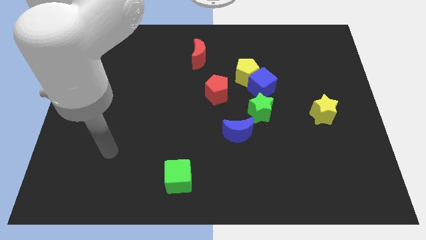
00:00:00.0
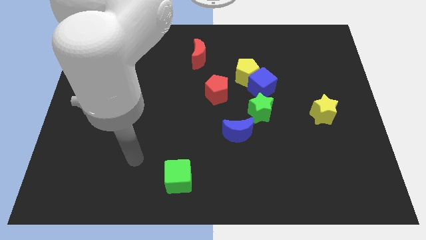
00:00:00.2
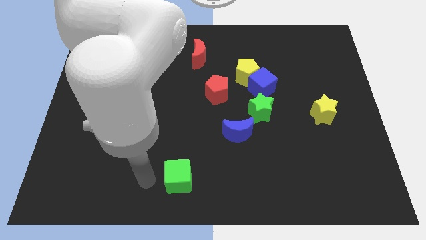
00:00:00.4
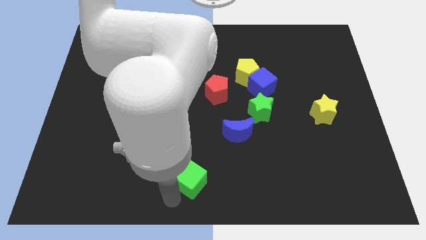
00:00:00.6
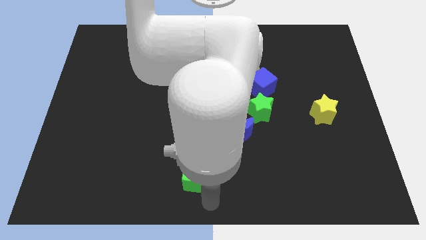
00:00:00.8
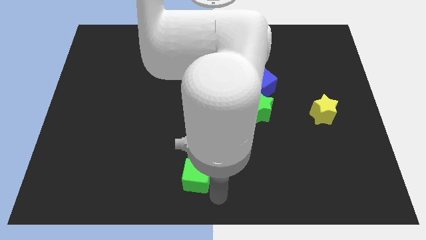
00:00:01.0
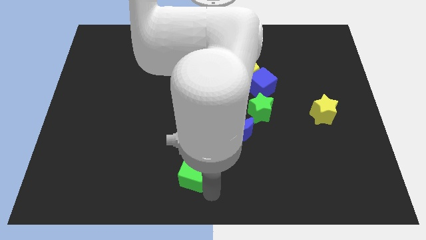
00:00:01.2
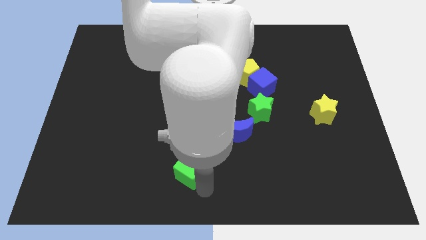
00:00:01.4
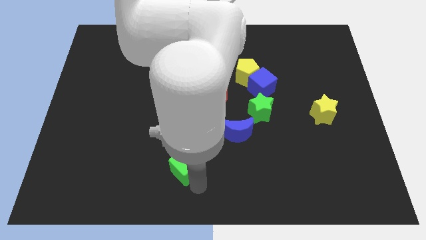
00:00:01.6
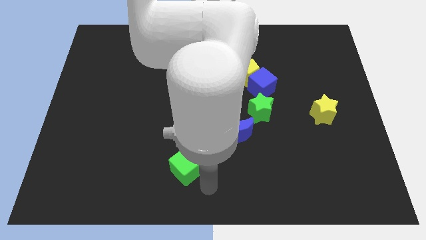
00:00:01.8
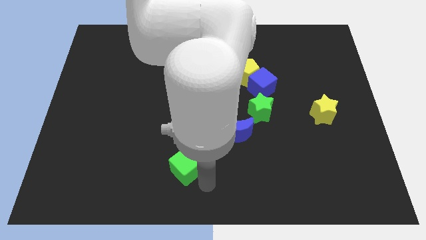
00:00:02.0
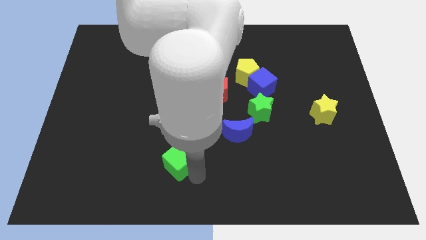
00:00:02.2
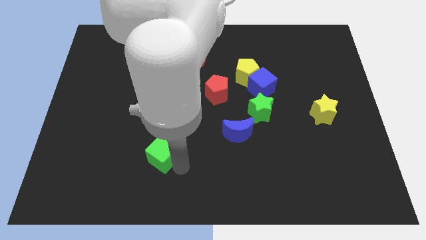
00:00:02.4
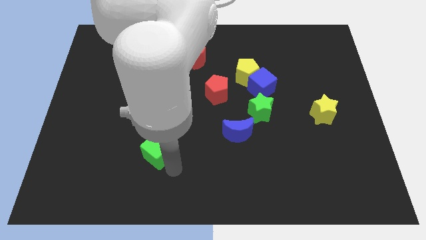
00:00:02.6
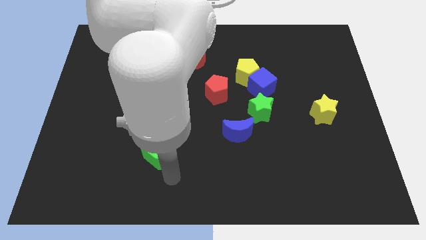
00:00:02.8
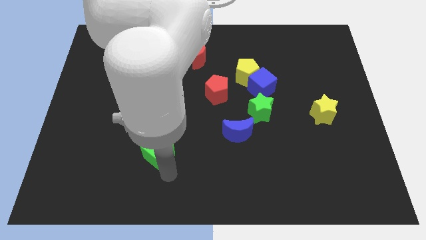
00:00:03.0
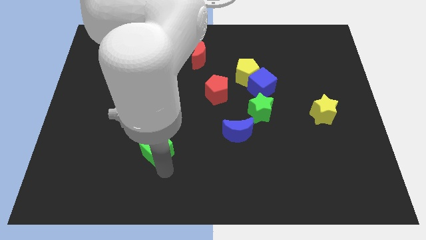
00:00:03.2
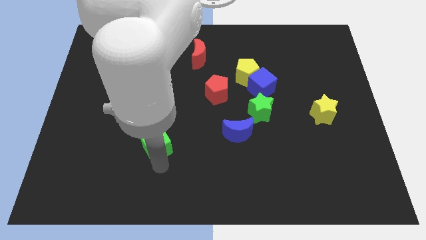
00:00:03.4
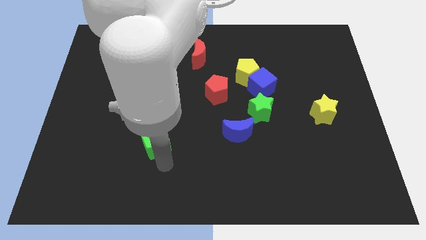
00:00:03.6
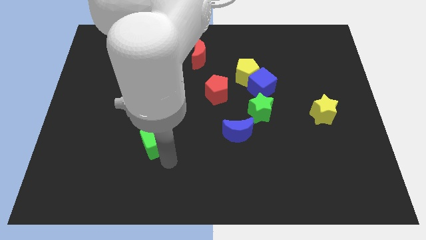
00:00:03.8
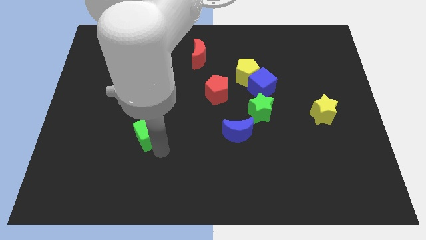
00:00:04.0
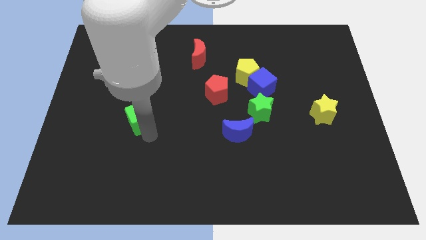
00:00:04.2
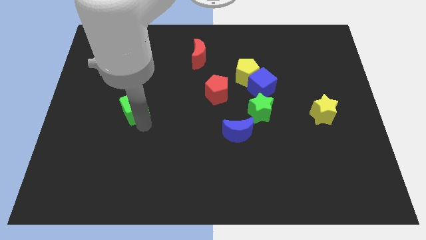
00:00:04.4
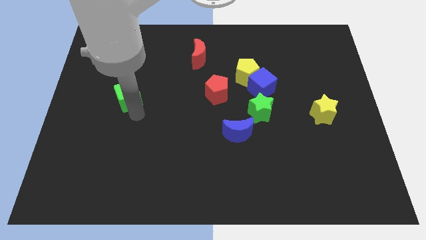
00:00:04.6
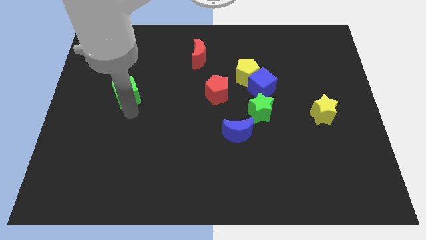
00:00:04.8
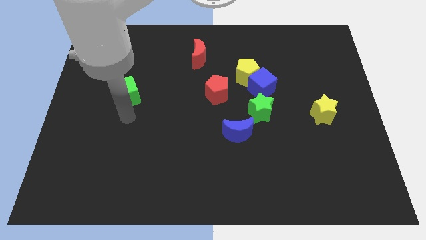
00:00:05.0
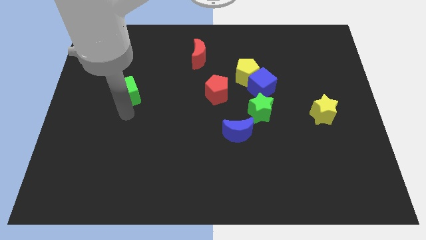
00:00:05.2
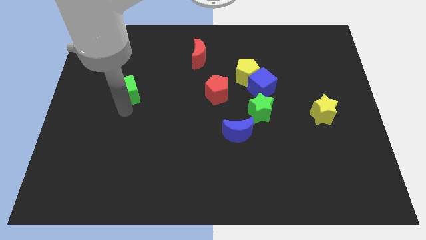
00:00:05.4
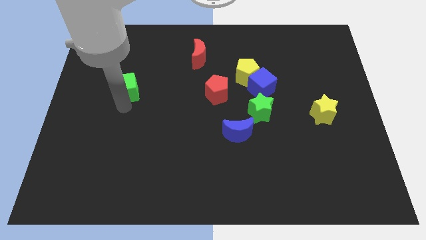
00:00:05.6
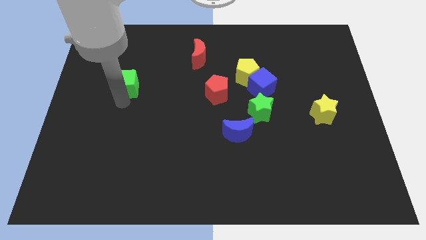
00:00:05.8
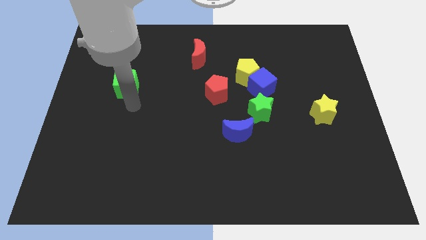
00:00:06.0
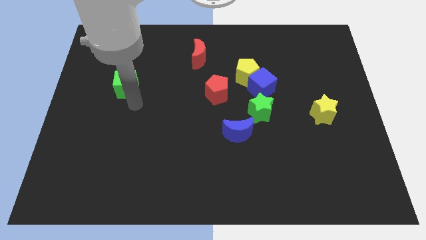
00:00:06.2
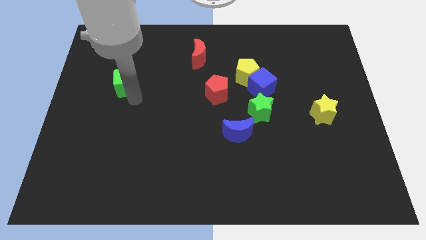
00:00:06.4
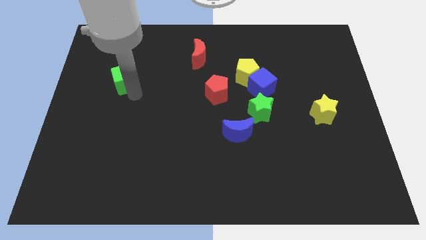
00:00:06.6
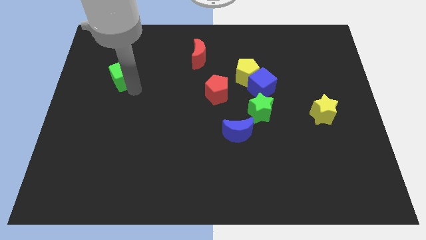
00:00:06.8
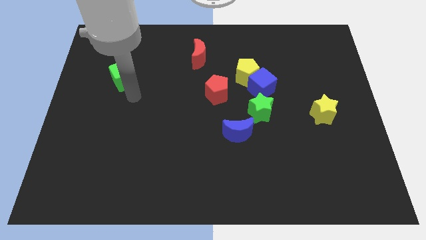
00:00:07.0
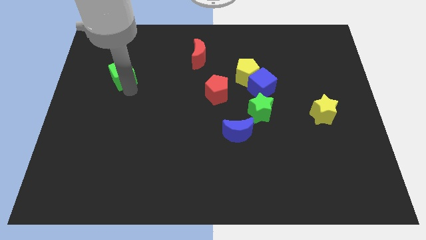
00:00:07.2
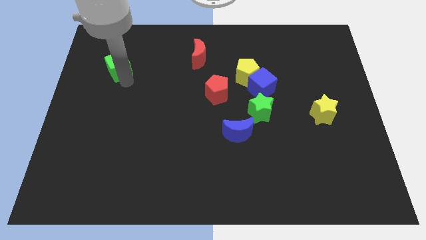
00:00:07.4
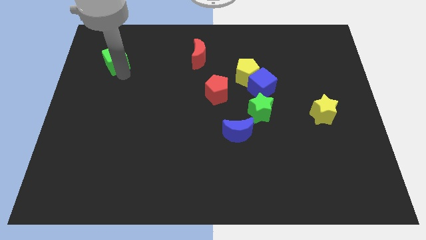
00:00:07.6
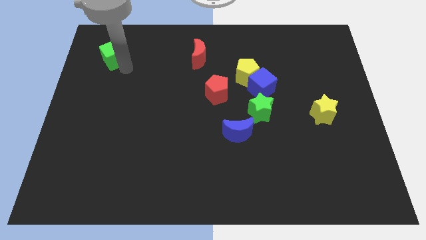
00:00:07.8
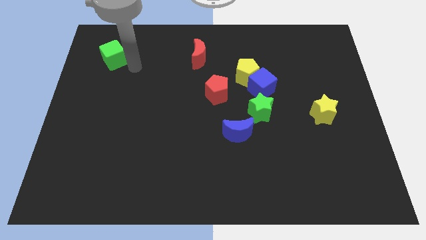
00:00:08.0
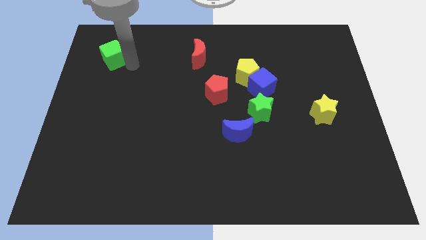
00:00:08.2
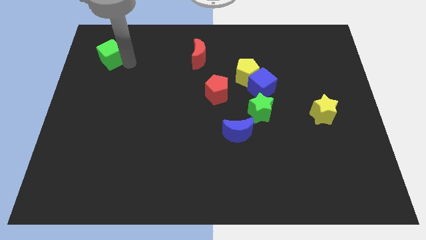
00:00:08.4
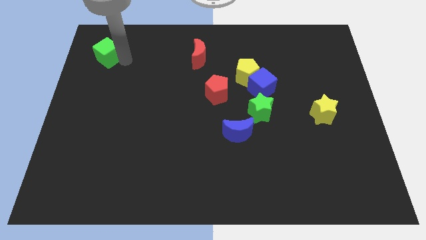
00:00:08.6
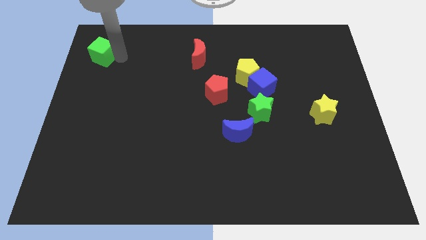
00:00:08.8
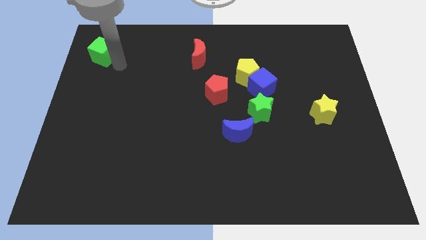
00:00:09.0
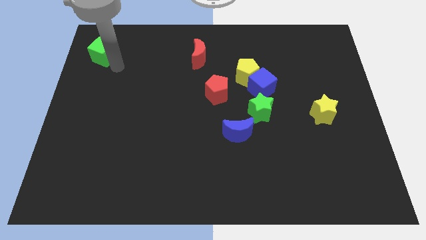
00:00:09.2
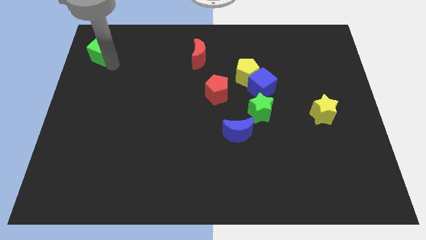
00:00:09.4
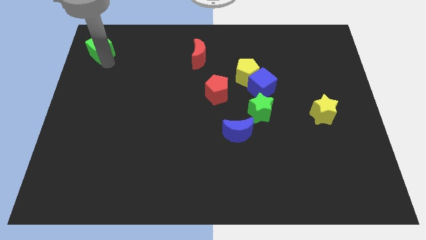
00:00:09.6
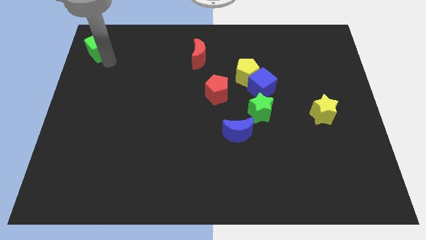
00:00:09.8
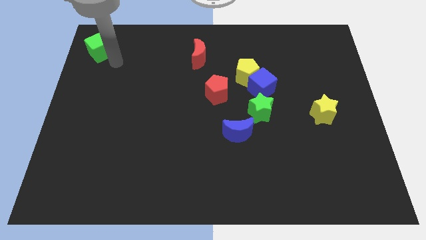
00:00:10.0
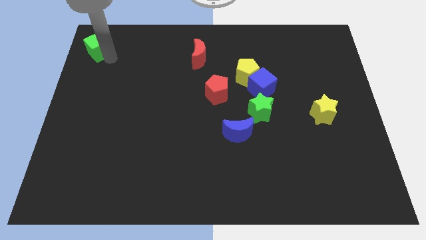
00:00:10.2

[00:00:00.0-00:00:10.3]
slide the green cube to the top left of the board

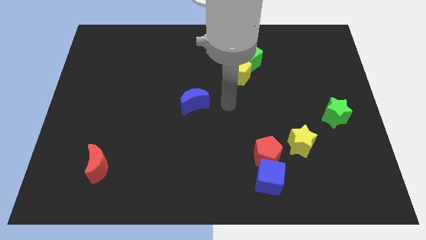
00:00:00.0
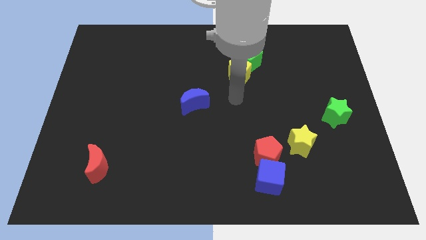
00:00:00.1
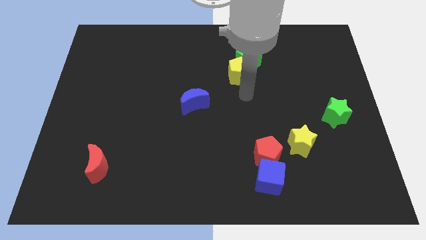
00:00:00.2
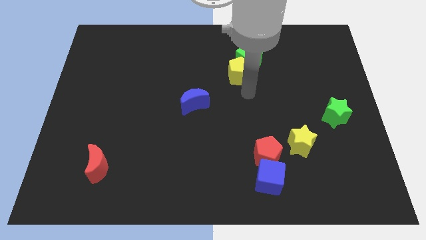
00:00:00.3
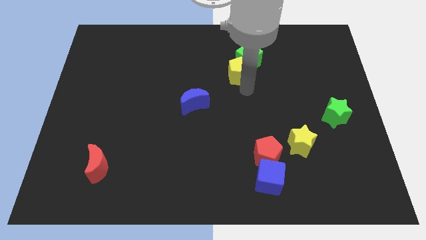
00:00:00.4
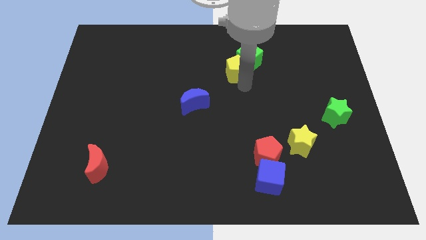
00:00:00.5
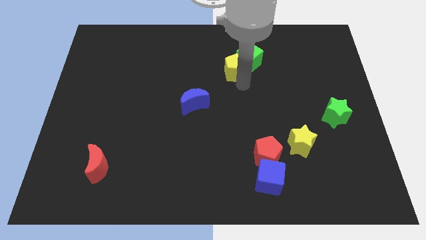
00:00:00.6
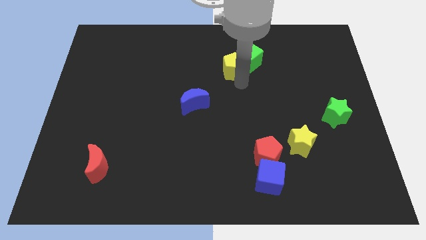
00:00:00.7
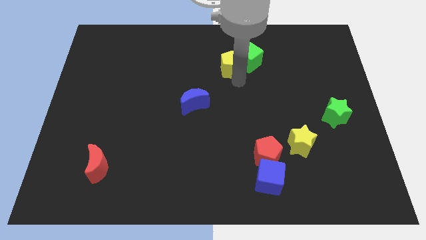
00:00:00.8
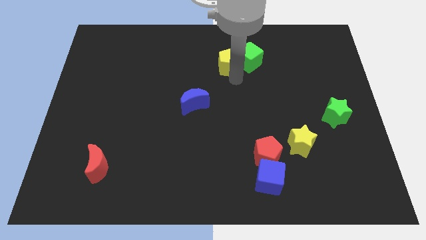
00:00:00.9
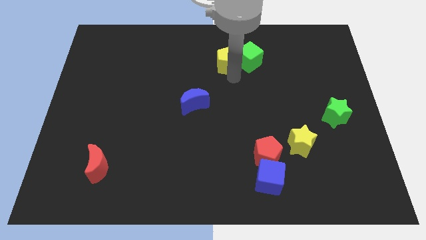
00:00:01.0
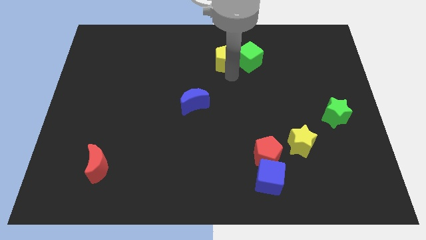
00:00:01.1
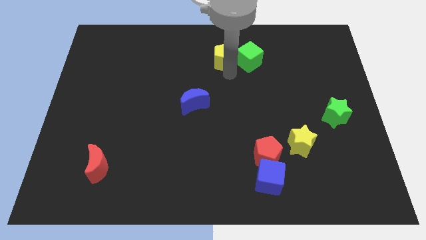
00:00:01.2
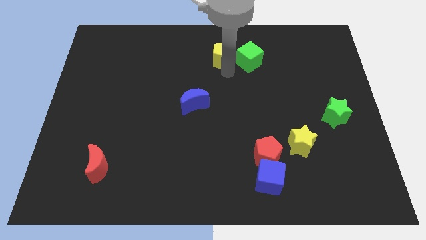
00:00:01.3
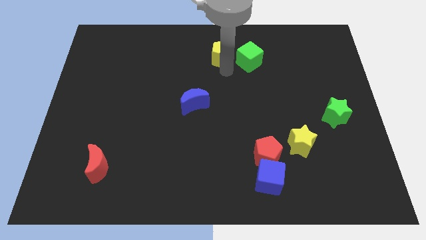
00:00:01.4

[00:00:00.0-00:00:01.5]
move the yellow pentagon to the top side
